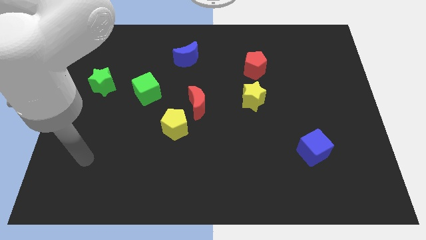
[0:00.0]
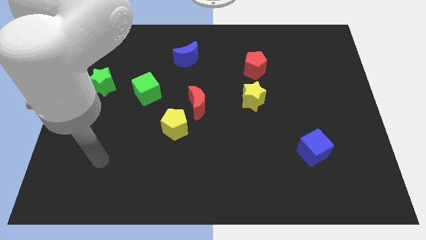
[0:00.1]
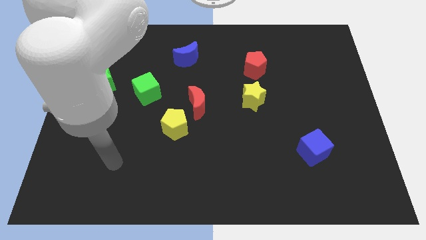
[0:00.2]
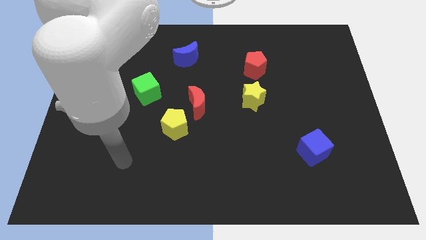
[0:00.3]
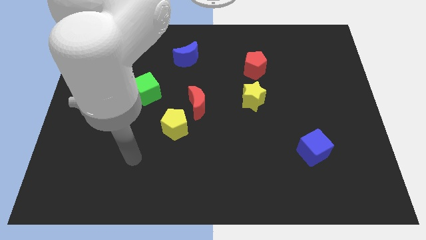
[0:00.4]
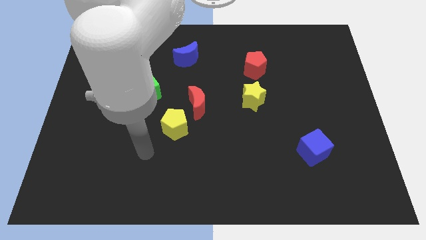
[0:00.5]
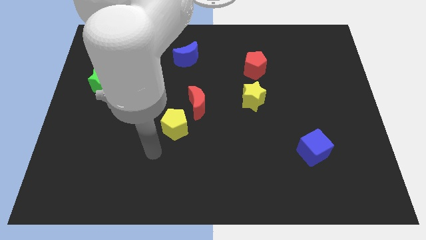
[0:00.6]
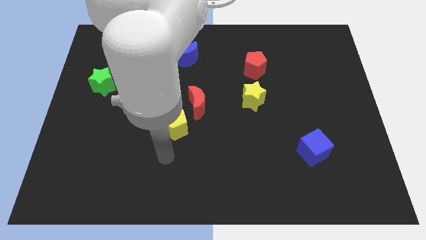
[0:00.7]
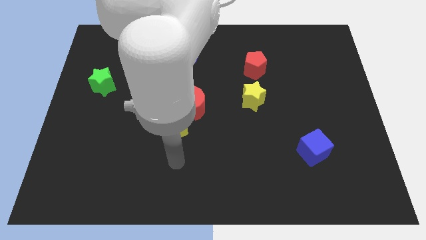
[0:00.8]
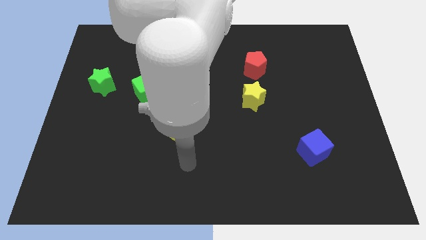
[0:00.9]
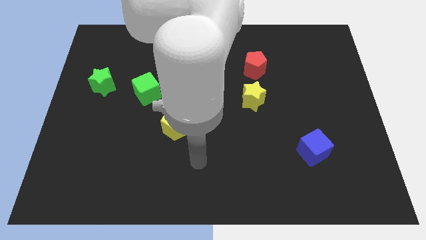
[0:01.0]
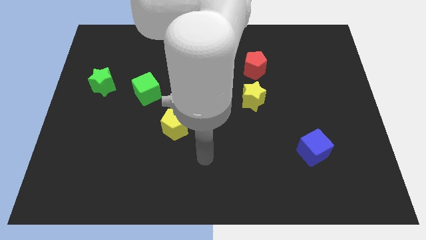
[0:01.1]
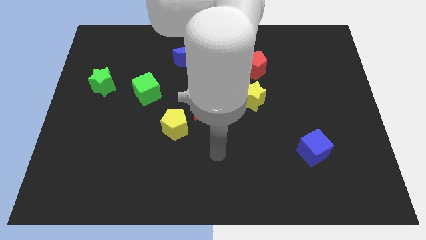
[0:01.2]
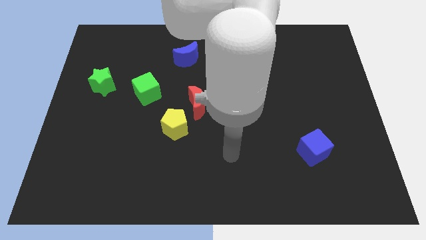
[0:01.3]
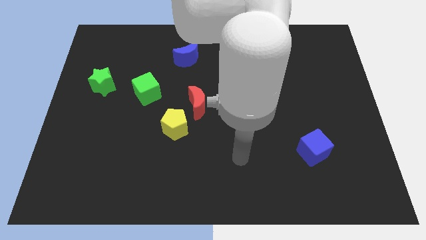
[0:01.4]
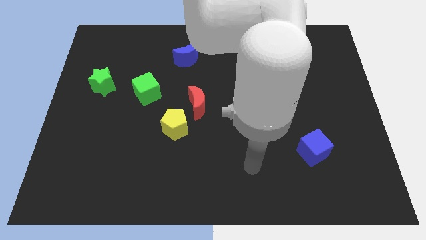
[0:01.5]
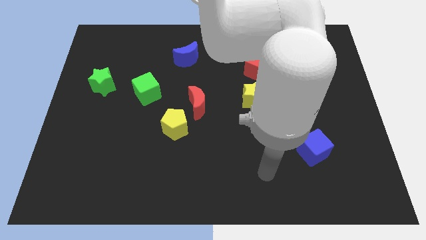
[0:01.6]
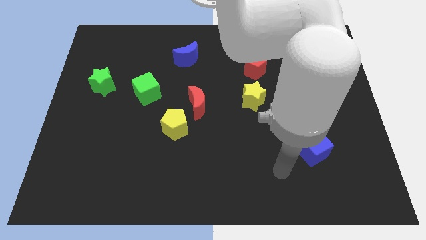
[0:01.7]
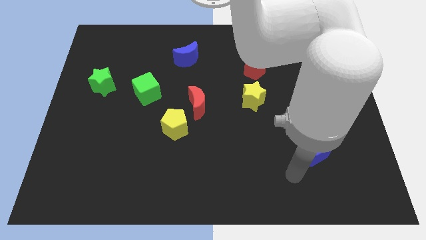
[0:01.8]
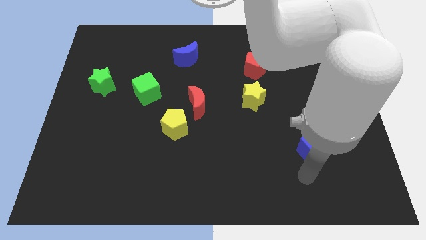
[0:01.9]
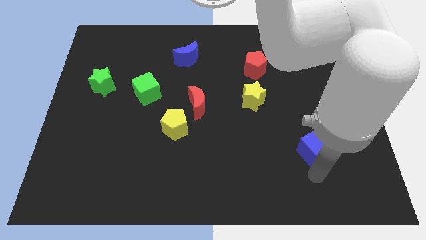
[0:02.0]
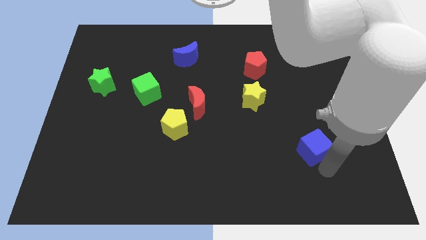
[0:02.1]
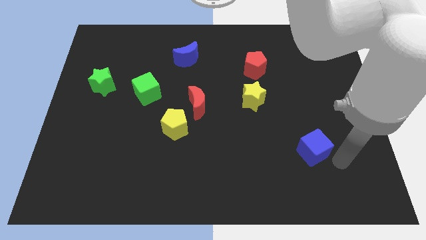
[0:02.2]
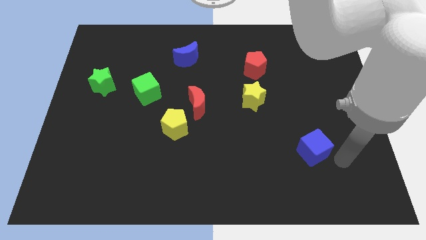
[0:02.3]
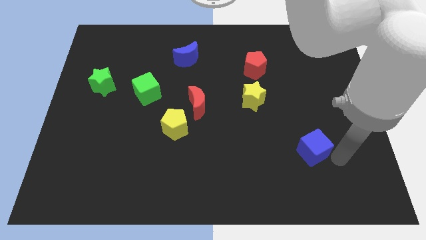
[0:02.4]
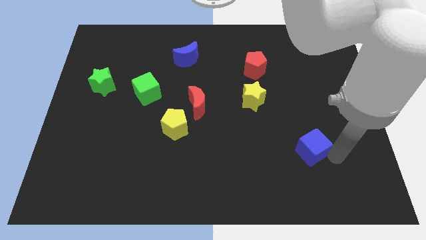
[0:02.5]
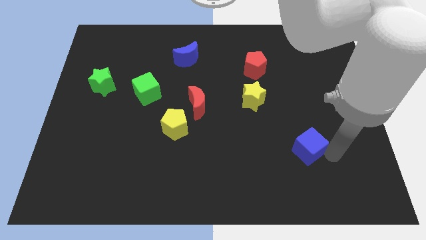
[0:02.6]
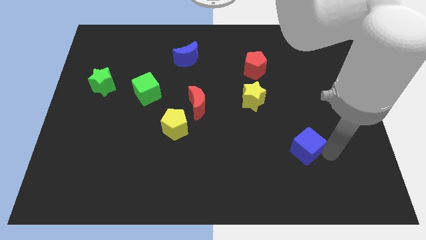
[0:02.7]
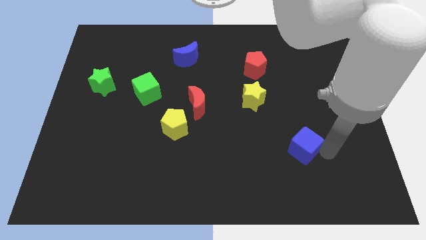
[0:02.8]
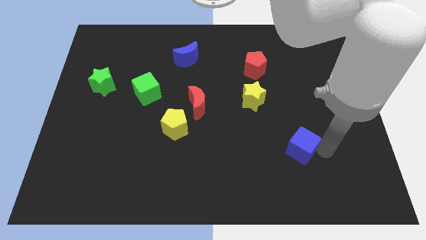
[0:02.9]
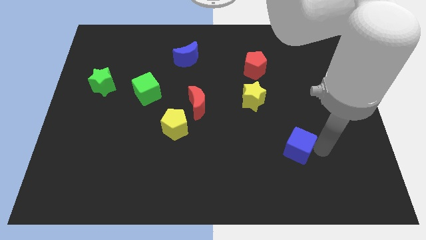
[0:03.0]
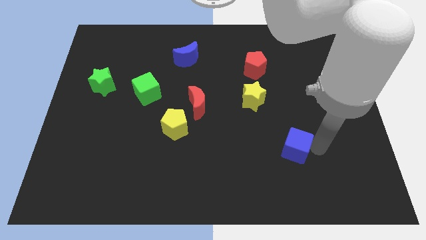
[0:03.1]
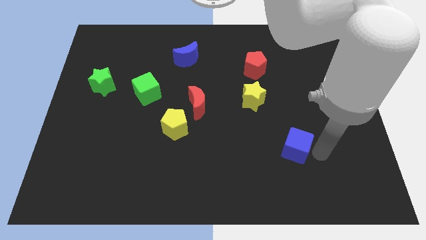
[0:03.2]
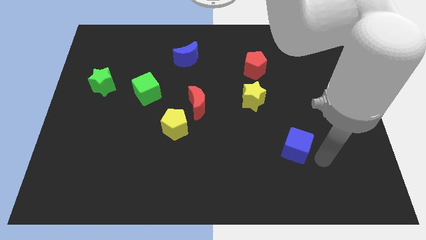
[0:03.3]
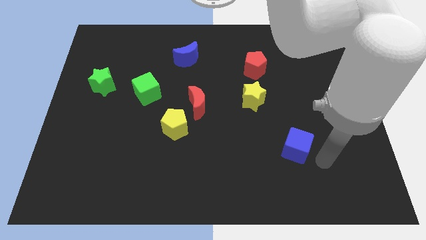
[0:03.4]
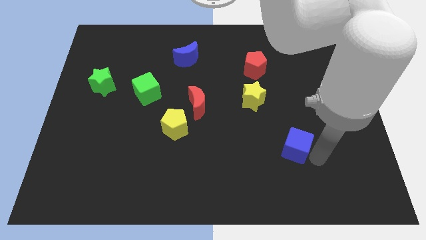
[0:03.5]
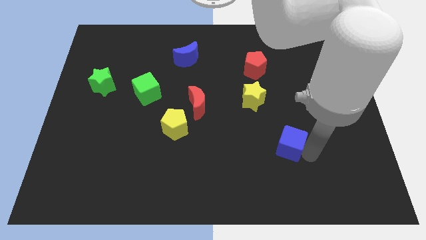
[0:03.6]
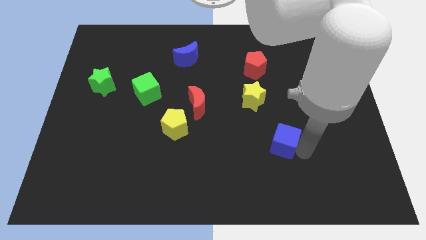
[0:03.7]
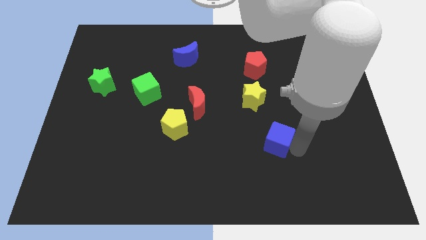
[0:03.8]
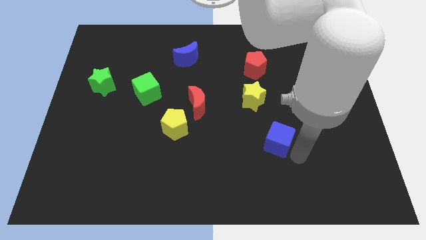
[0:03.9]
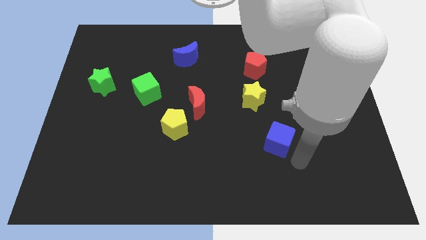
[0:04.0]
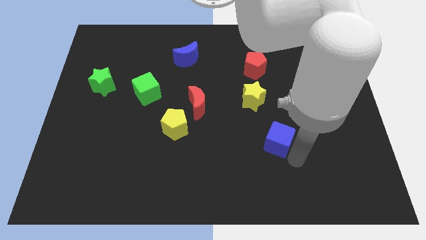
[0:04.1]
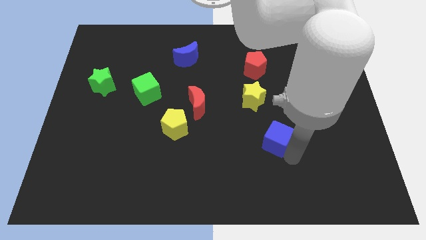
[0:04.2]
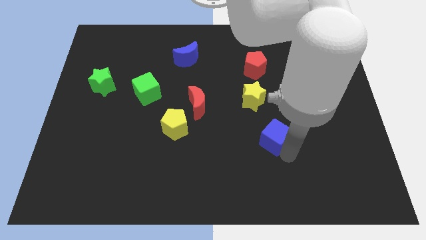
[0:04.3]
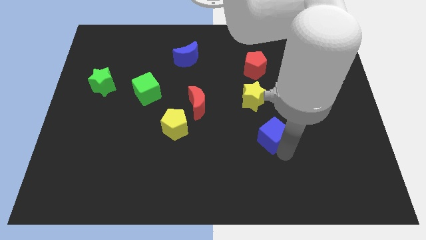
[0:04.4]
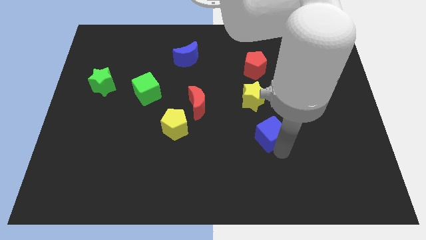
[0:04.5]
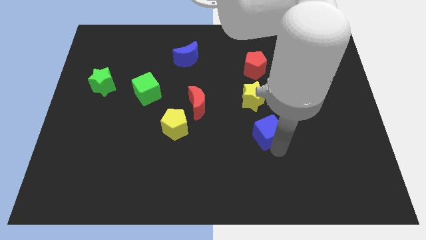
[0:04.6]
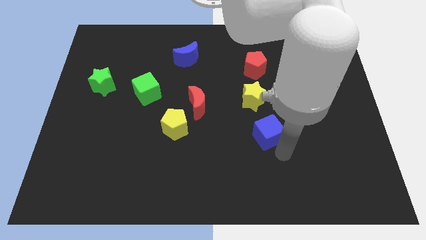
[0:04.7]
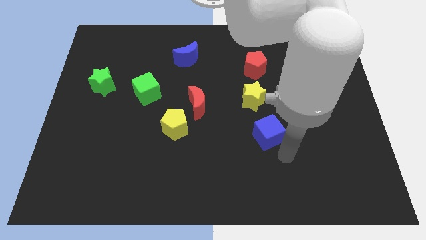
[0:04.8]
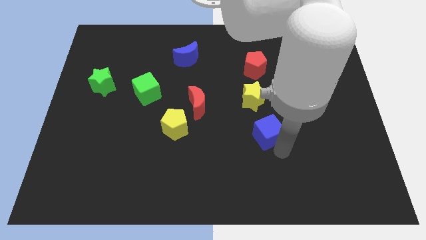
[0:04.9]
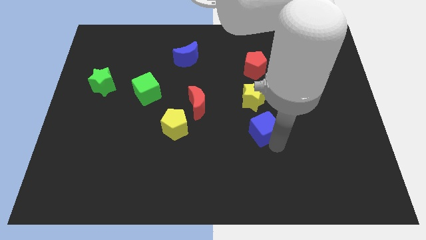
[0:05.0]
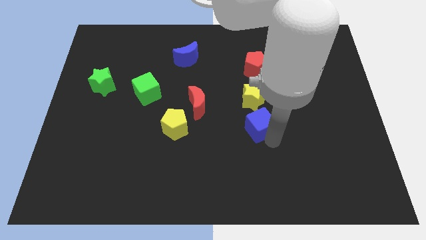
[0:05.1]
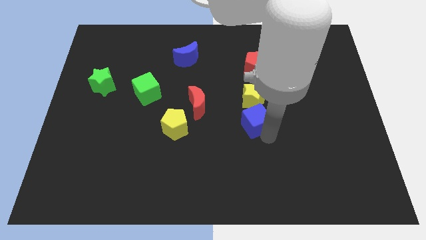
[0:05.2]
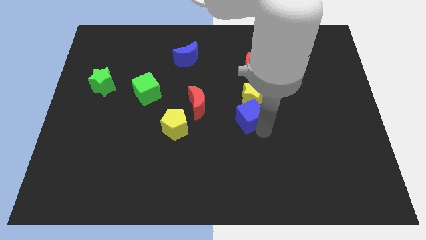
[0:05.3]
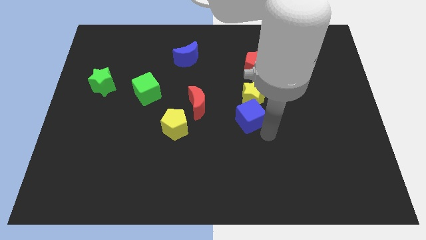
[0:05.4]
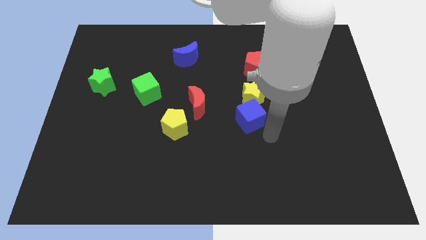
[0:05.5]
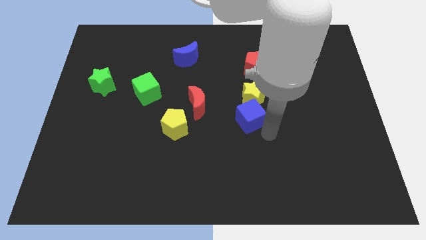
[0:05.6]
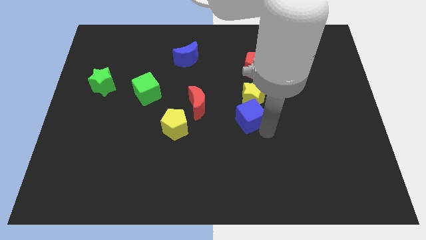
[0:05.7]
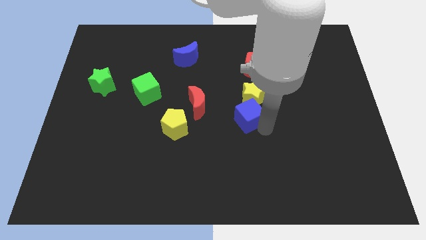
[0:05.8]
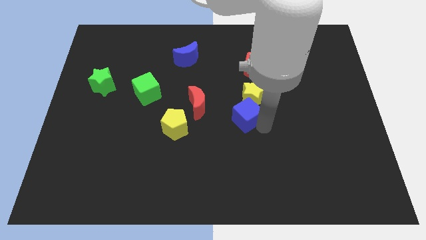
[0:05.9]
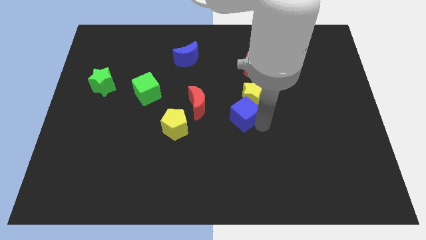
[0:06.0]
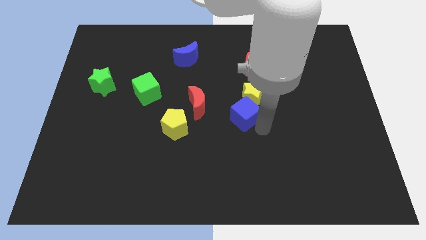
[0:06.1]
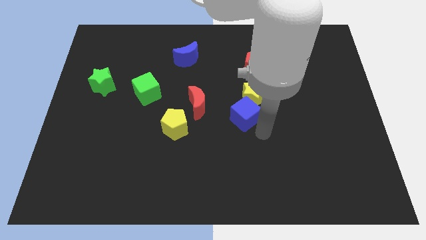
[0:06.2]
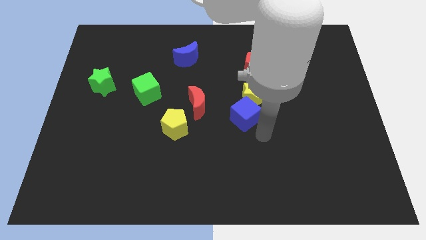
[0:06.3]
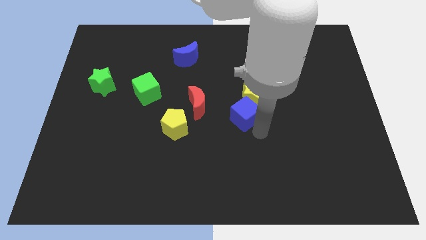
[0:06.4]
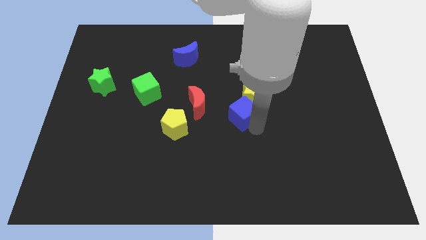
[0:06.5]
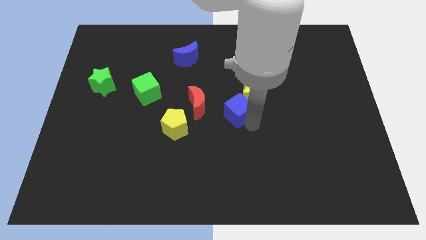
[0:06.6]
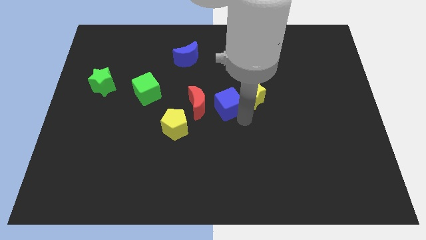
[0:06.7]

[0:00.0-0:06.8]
move the blue cube upwards and to the left

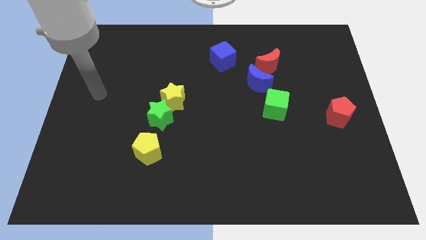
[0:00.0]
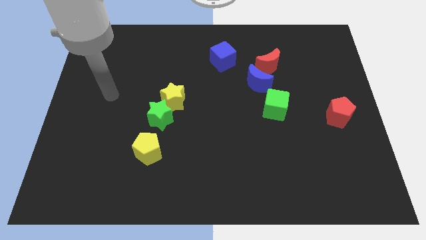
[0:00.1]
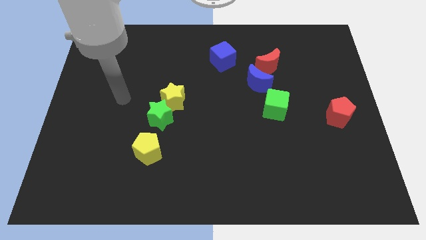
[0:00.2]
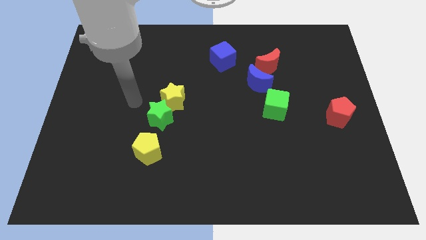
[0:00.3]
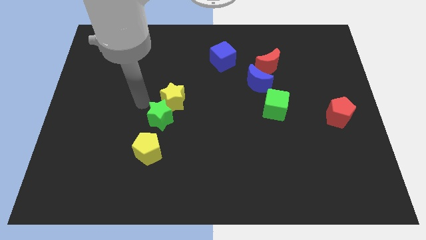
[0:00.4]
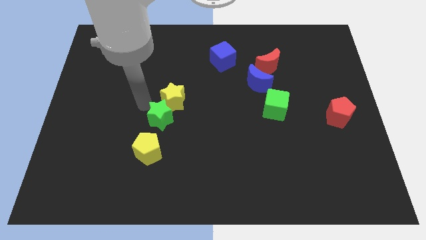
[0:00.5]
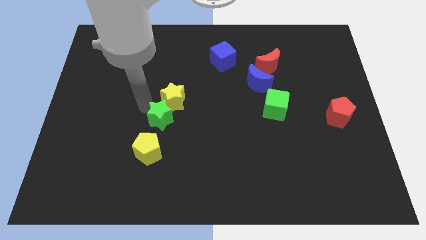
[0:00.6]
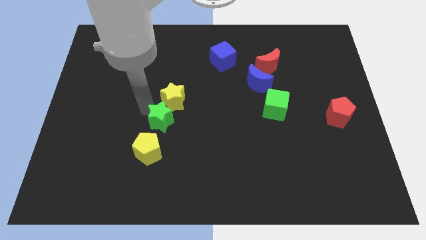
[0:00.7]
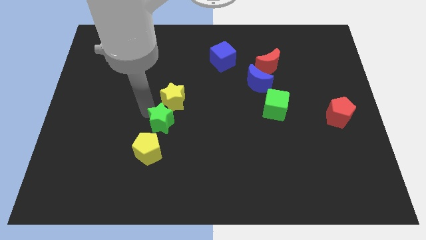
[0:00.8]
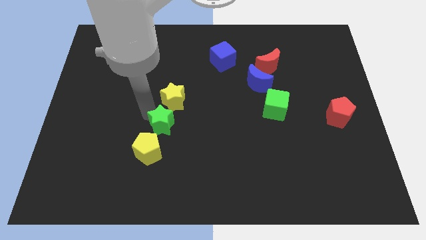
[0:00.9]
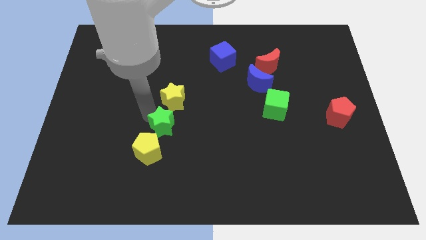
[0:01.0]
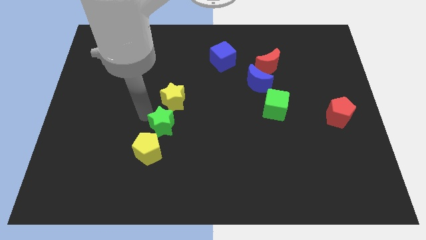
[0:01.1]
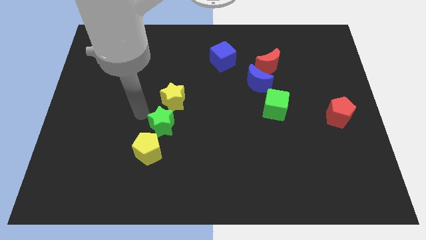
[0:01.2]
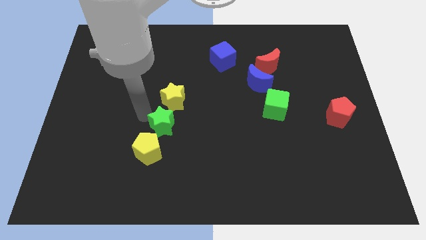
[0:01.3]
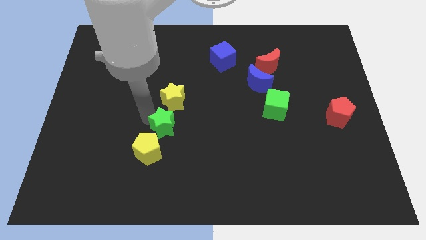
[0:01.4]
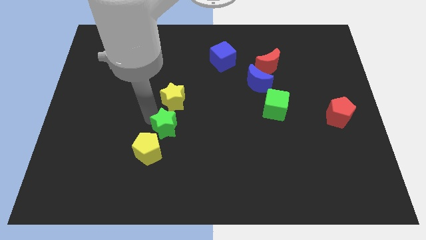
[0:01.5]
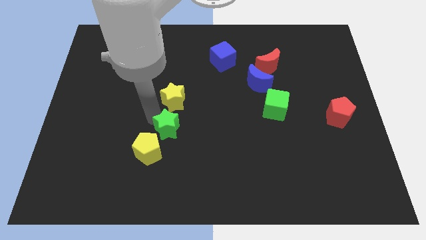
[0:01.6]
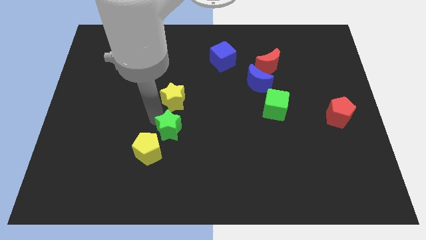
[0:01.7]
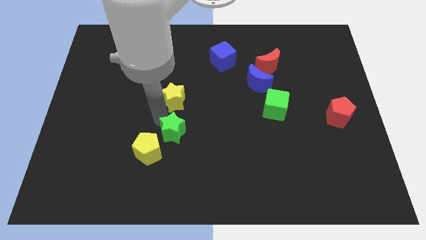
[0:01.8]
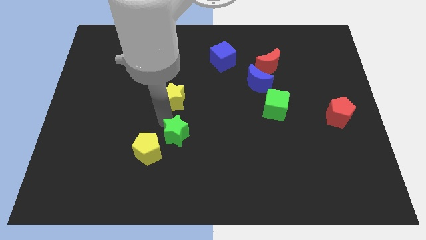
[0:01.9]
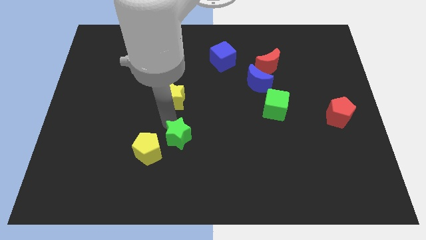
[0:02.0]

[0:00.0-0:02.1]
slightly move the green star downwards and right
